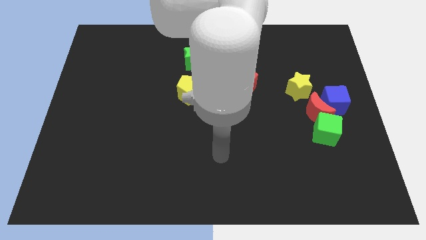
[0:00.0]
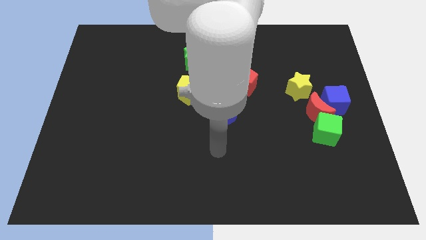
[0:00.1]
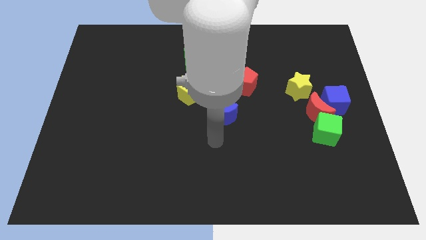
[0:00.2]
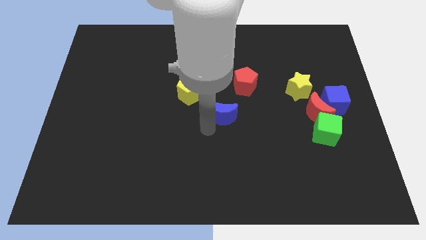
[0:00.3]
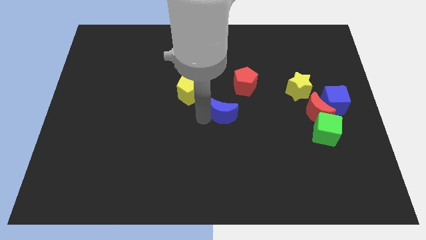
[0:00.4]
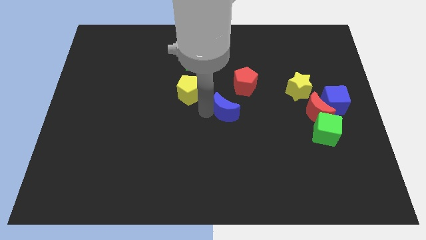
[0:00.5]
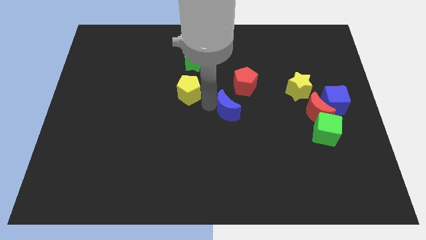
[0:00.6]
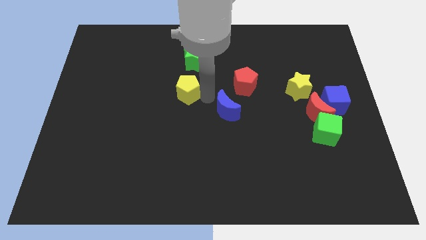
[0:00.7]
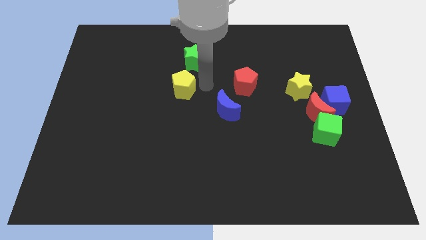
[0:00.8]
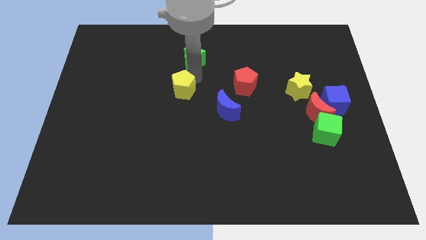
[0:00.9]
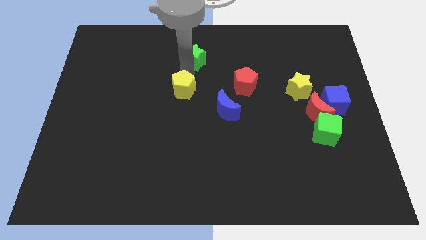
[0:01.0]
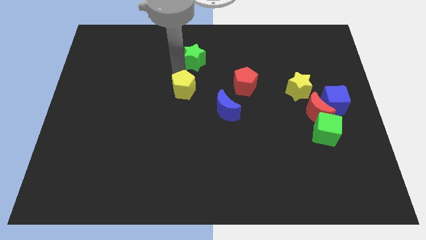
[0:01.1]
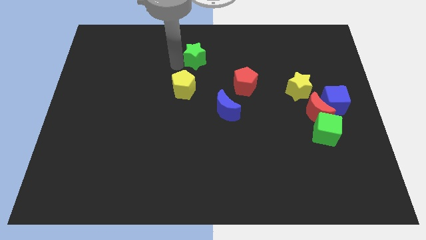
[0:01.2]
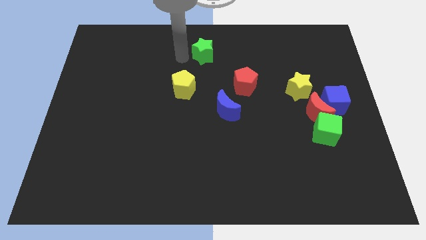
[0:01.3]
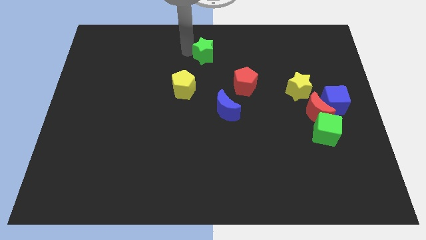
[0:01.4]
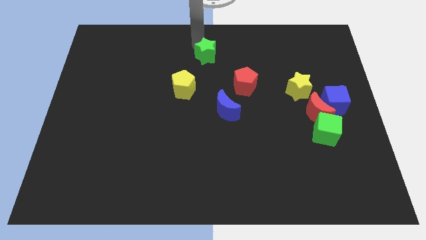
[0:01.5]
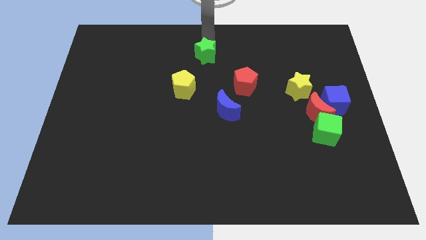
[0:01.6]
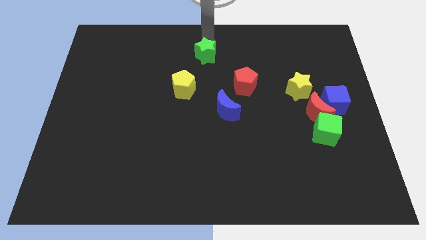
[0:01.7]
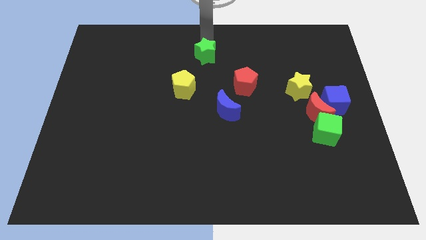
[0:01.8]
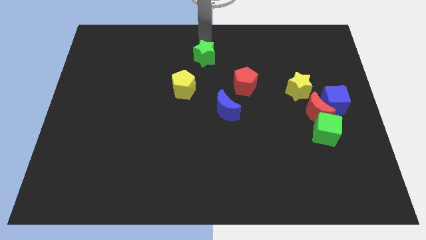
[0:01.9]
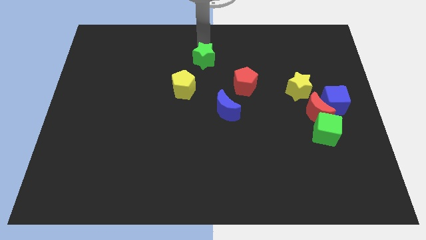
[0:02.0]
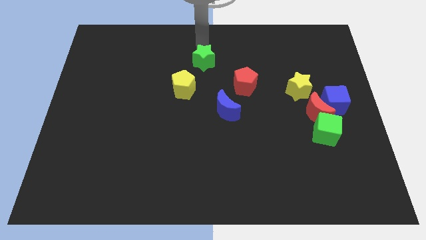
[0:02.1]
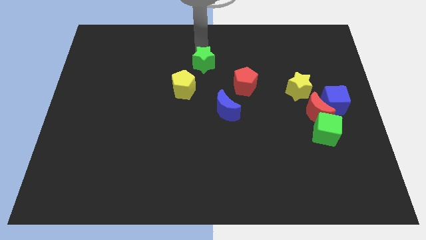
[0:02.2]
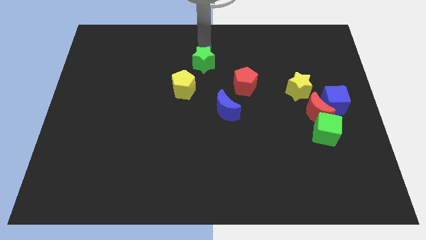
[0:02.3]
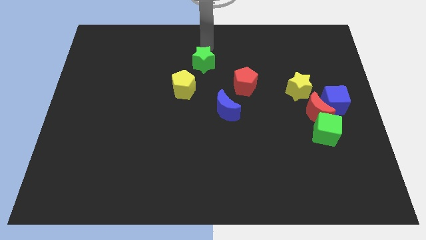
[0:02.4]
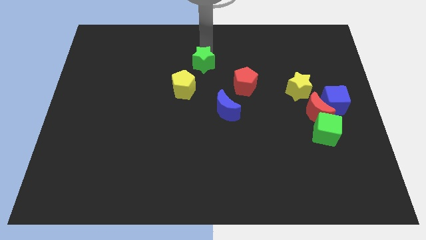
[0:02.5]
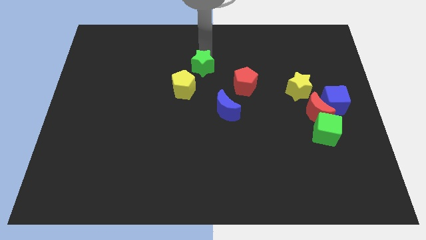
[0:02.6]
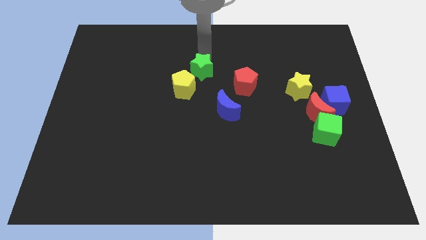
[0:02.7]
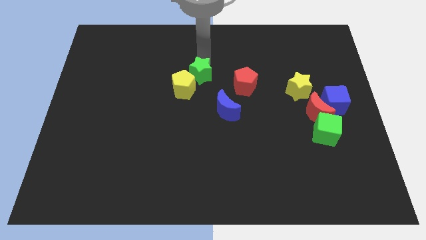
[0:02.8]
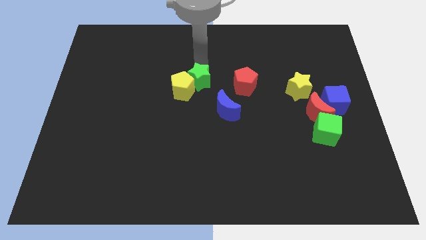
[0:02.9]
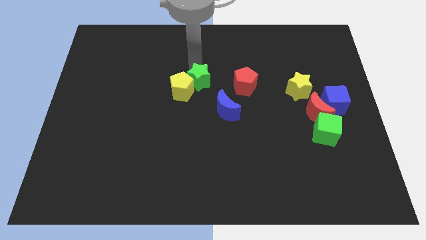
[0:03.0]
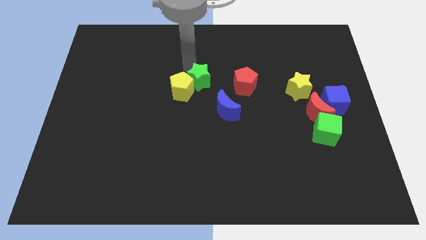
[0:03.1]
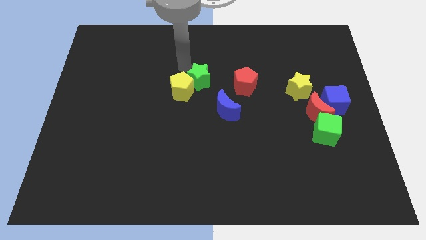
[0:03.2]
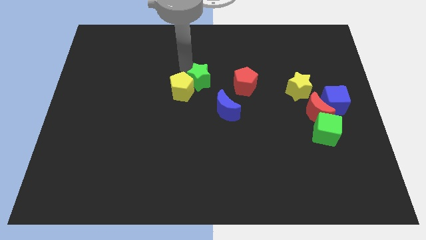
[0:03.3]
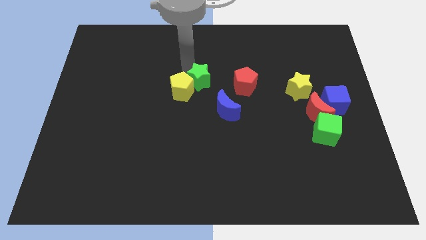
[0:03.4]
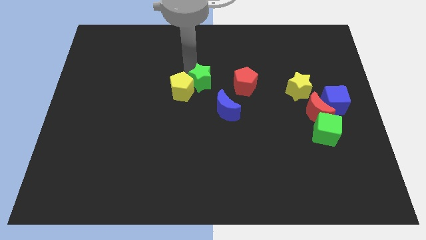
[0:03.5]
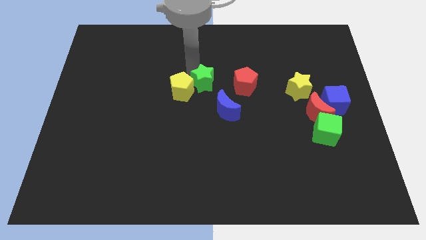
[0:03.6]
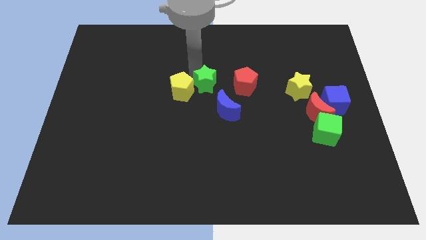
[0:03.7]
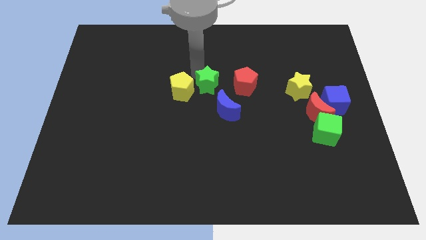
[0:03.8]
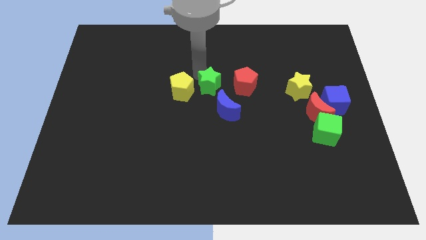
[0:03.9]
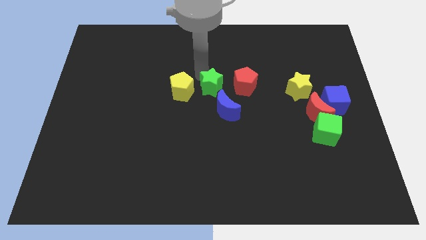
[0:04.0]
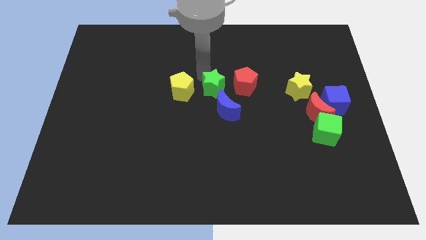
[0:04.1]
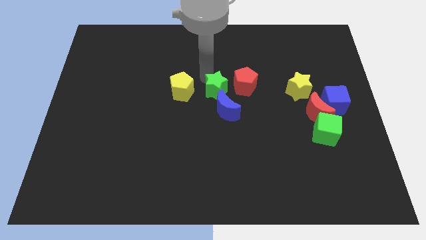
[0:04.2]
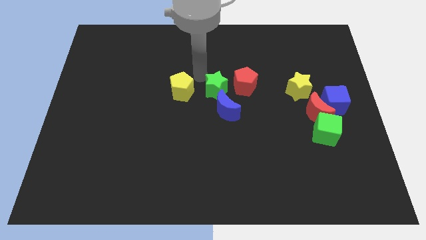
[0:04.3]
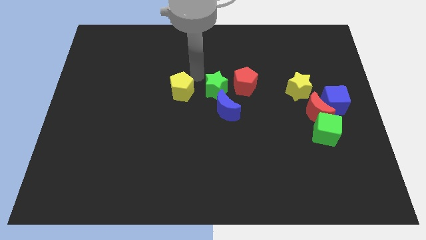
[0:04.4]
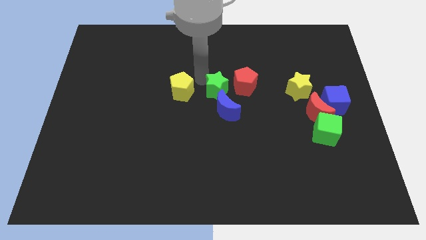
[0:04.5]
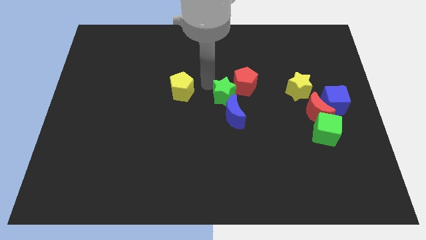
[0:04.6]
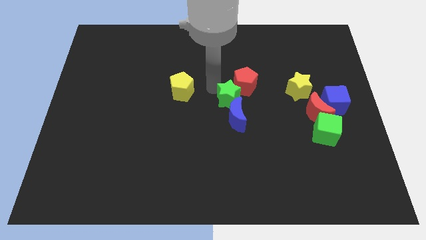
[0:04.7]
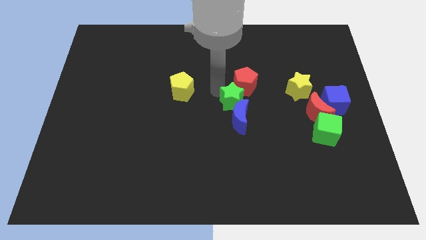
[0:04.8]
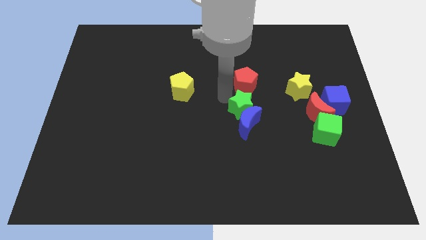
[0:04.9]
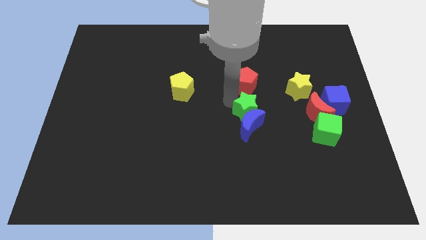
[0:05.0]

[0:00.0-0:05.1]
move the green star down and to the right

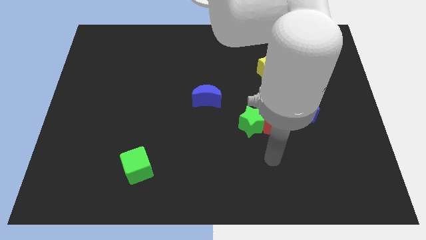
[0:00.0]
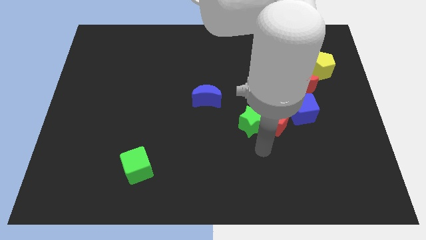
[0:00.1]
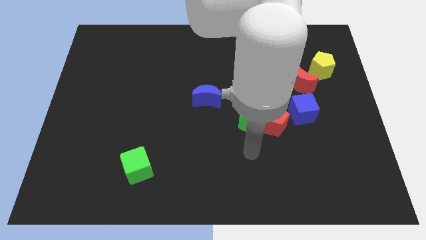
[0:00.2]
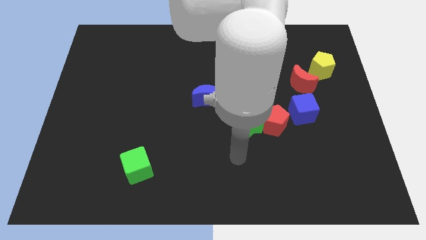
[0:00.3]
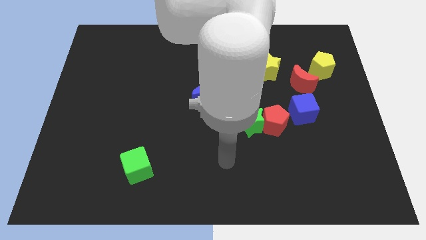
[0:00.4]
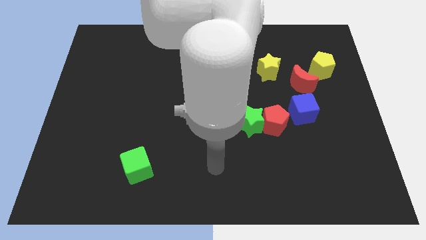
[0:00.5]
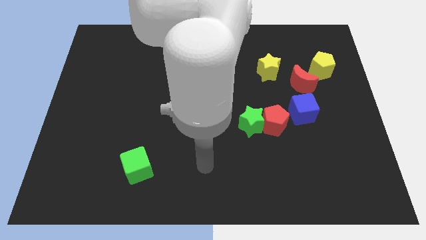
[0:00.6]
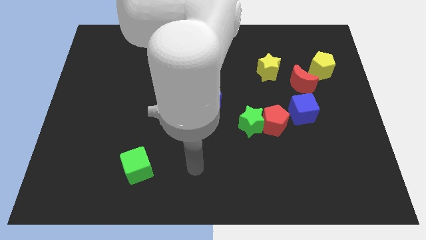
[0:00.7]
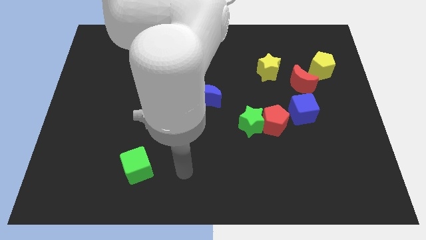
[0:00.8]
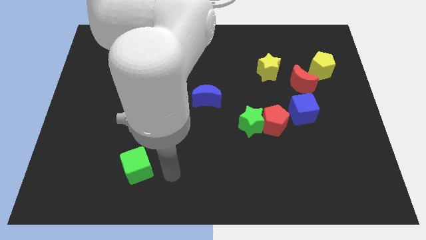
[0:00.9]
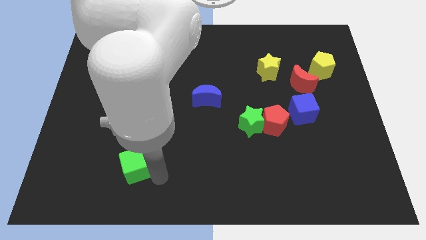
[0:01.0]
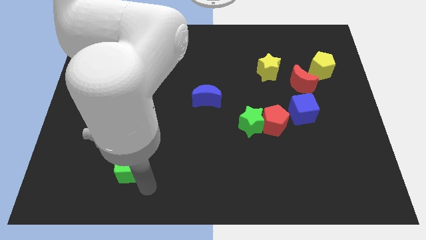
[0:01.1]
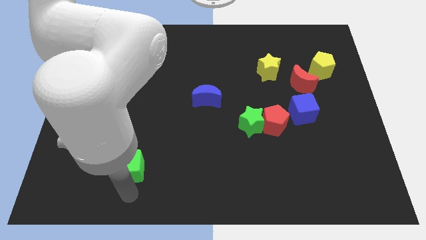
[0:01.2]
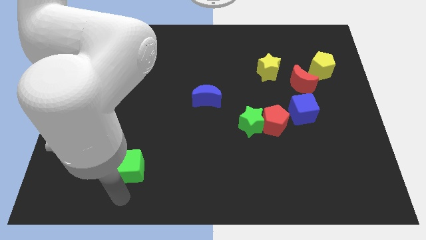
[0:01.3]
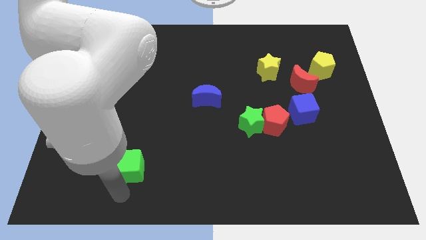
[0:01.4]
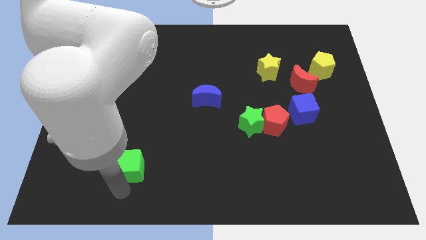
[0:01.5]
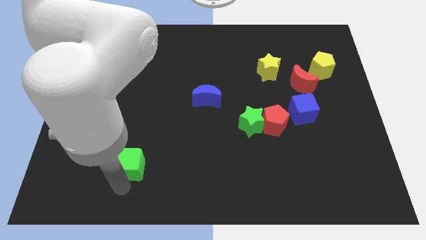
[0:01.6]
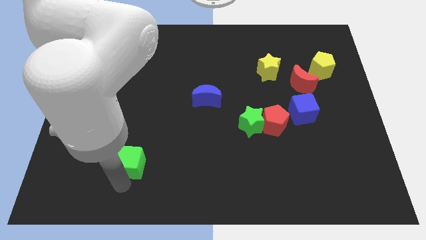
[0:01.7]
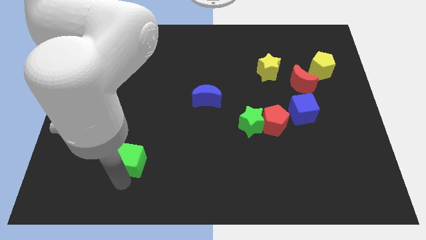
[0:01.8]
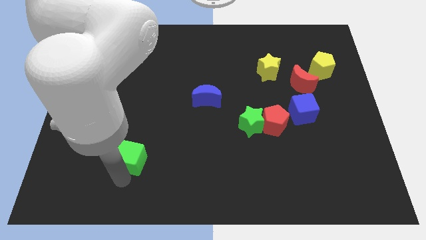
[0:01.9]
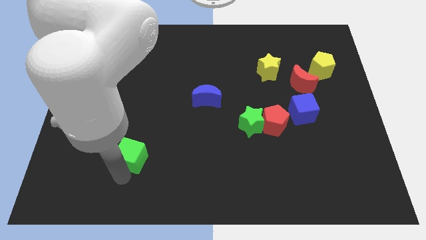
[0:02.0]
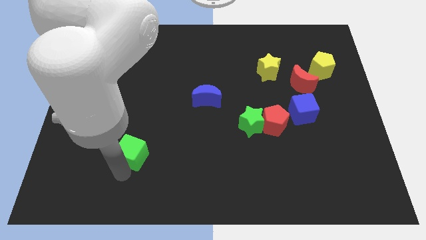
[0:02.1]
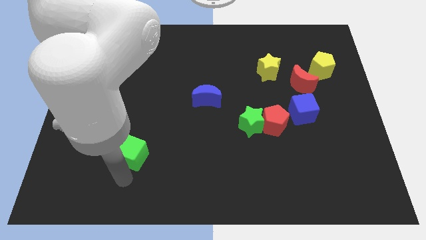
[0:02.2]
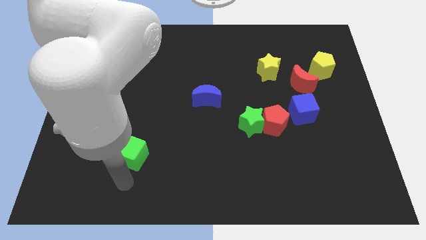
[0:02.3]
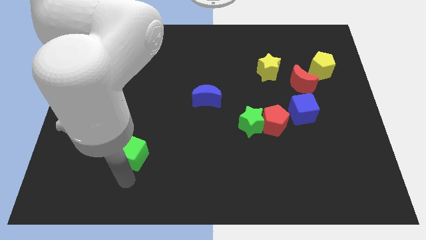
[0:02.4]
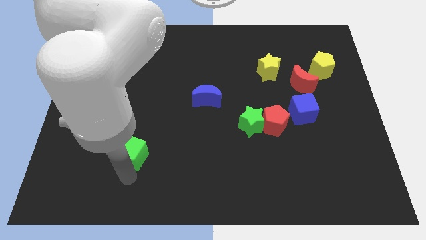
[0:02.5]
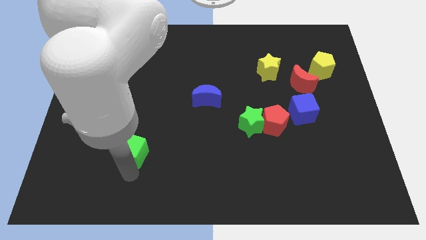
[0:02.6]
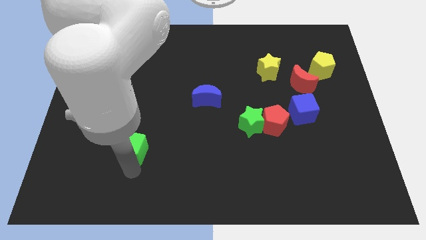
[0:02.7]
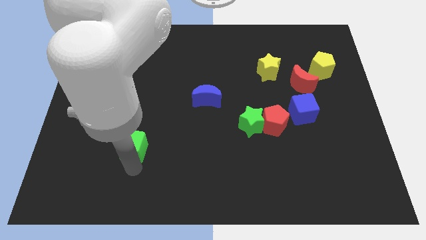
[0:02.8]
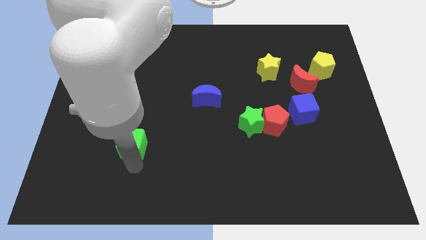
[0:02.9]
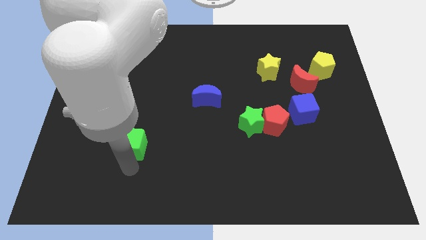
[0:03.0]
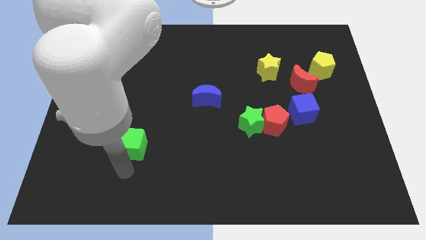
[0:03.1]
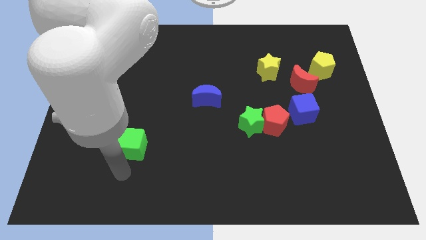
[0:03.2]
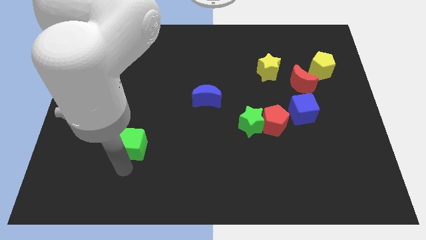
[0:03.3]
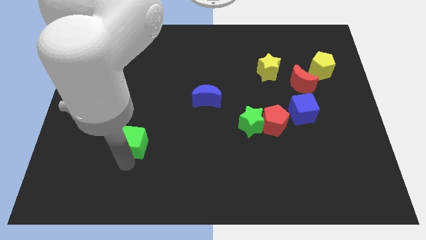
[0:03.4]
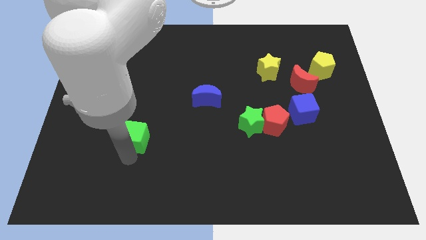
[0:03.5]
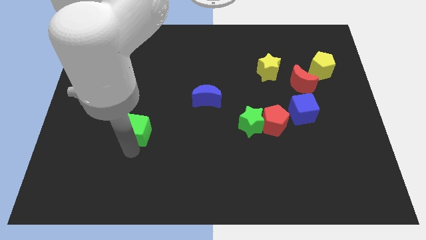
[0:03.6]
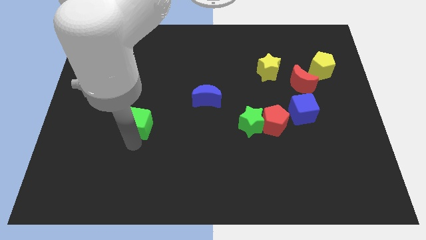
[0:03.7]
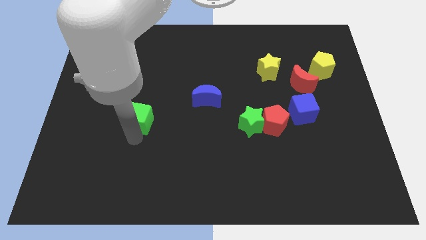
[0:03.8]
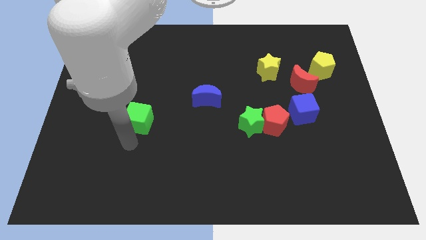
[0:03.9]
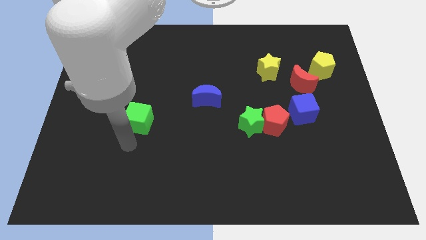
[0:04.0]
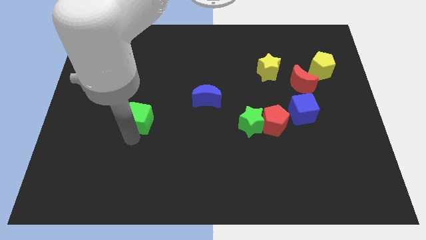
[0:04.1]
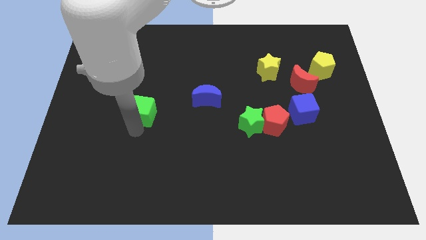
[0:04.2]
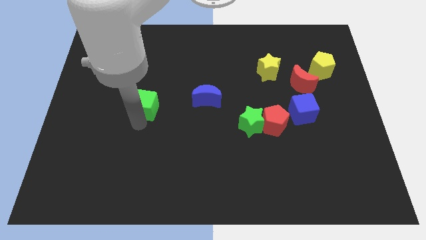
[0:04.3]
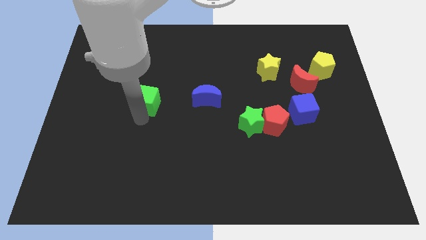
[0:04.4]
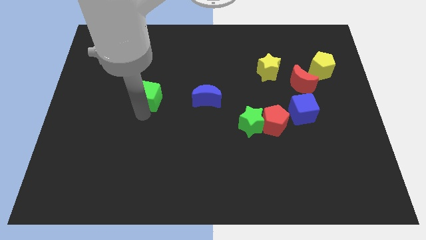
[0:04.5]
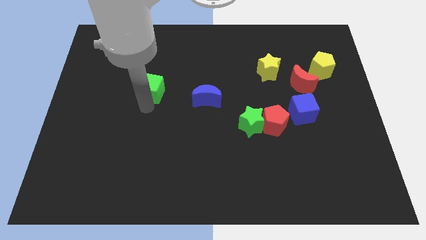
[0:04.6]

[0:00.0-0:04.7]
slide the green cube upwards
